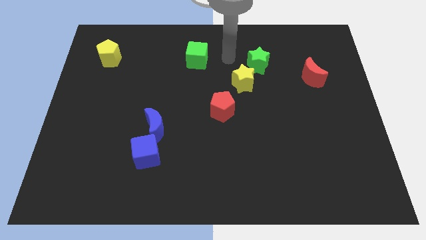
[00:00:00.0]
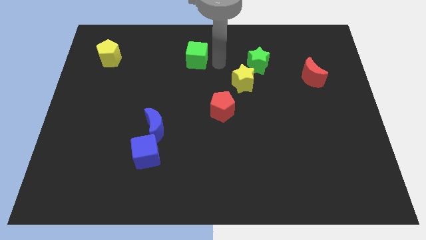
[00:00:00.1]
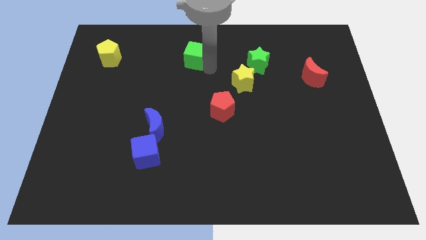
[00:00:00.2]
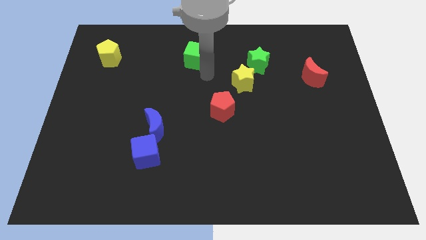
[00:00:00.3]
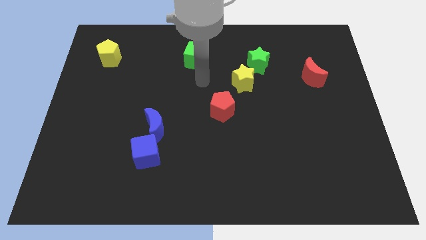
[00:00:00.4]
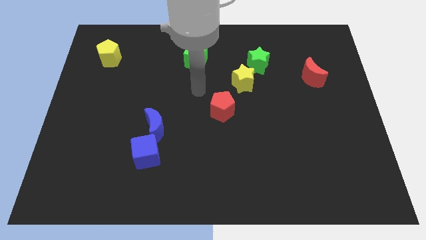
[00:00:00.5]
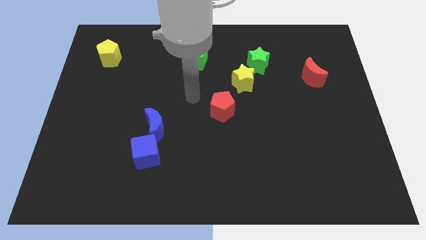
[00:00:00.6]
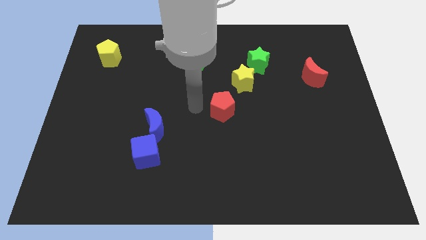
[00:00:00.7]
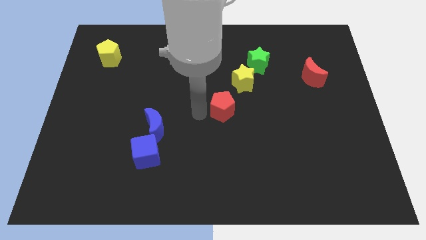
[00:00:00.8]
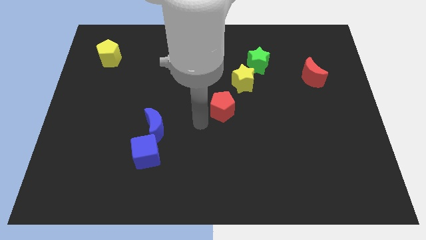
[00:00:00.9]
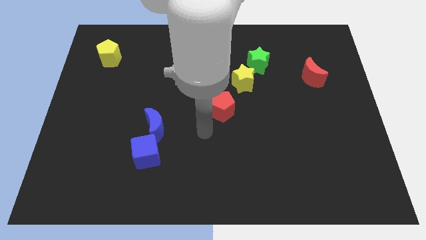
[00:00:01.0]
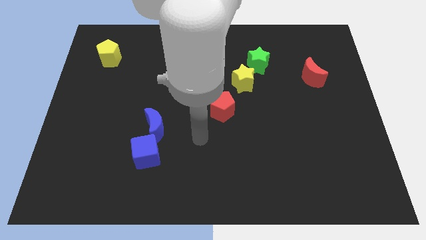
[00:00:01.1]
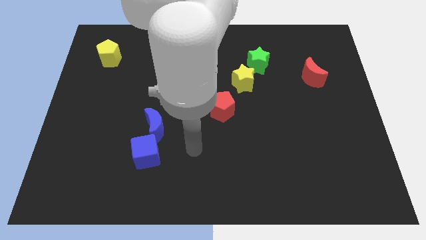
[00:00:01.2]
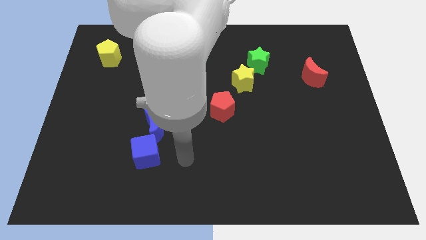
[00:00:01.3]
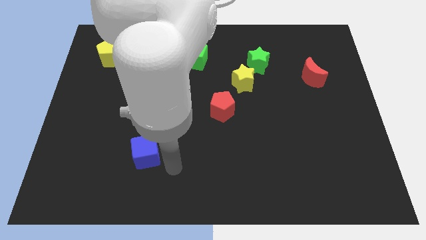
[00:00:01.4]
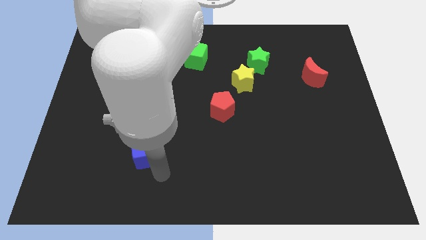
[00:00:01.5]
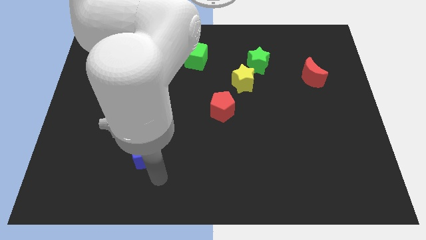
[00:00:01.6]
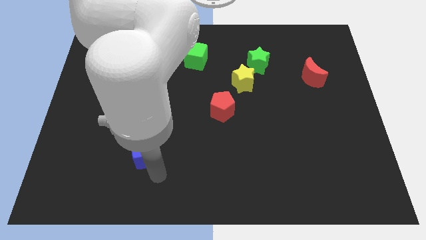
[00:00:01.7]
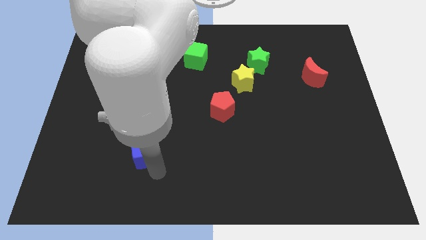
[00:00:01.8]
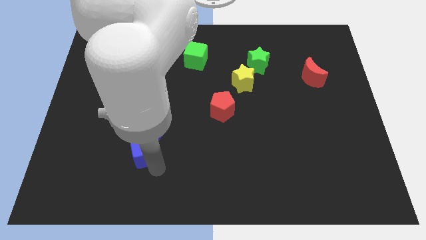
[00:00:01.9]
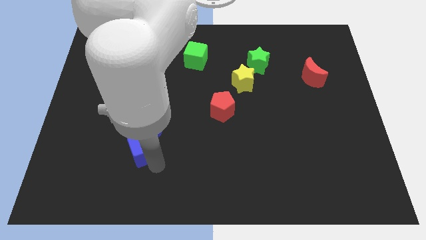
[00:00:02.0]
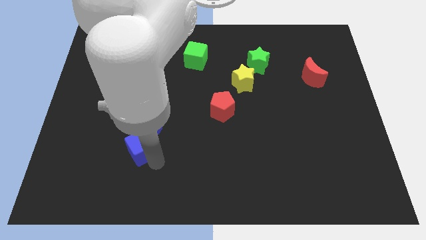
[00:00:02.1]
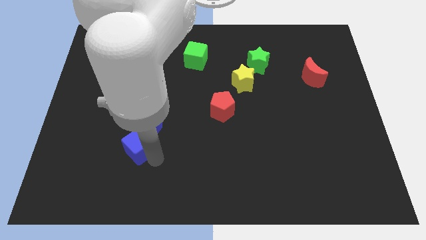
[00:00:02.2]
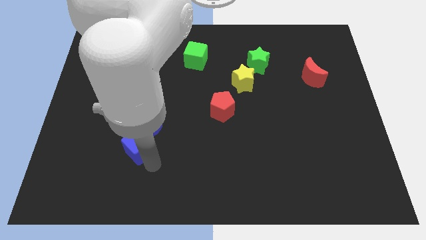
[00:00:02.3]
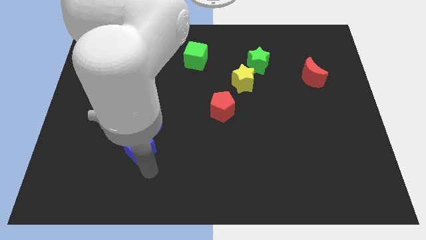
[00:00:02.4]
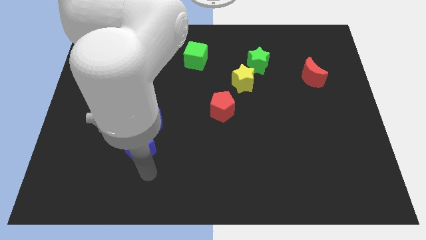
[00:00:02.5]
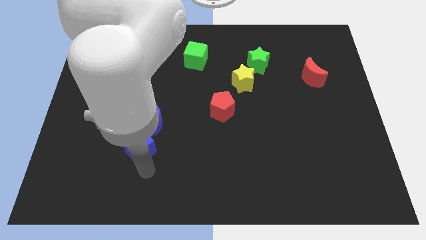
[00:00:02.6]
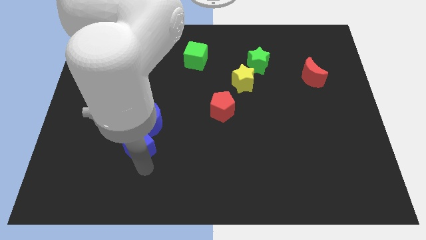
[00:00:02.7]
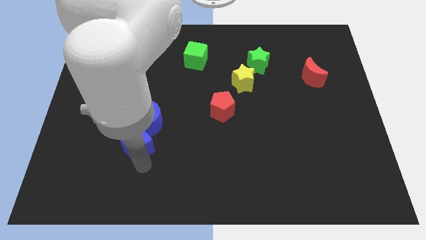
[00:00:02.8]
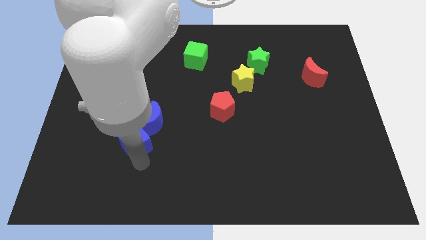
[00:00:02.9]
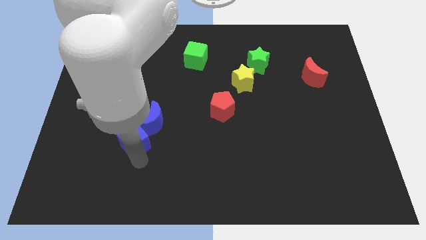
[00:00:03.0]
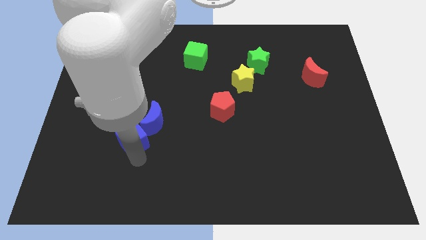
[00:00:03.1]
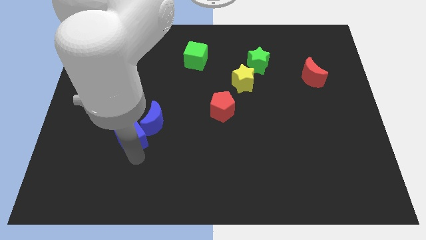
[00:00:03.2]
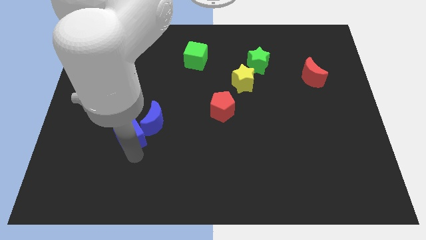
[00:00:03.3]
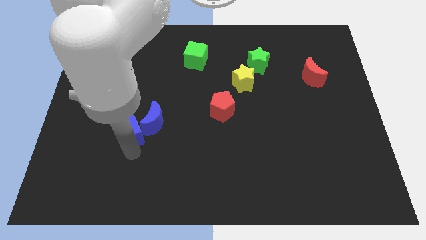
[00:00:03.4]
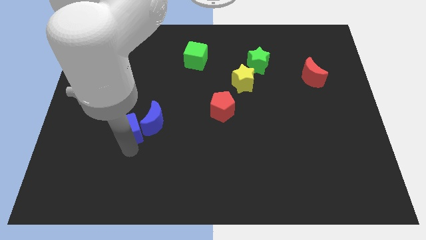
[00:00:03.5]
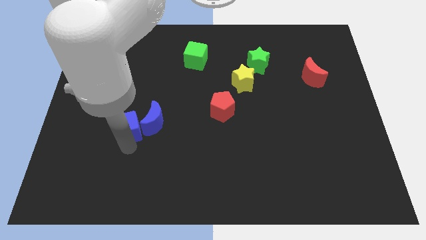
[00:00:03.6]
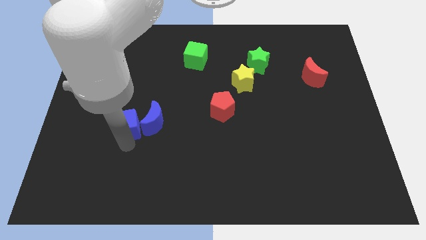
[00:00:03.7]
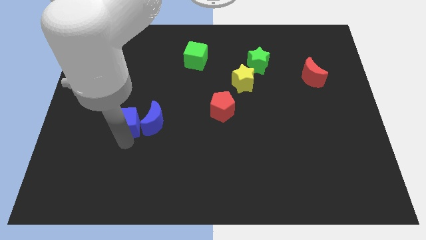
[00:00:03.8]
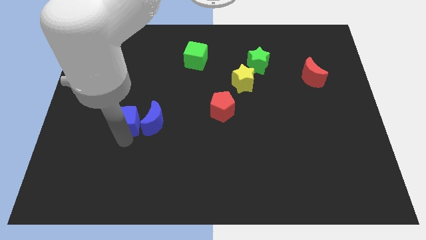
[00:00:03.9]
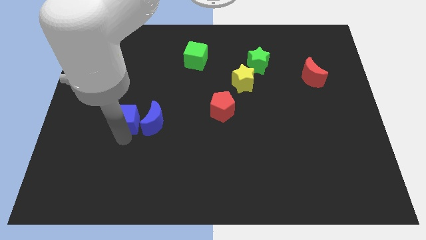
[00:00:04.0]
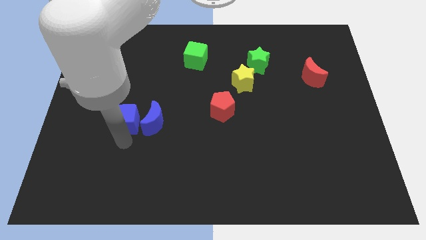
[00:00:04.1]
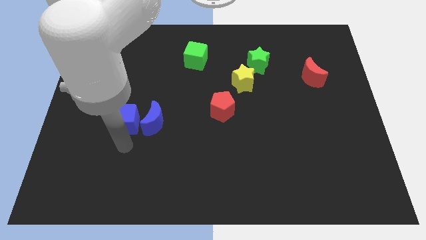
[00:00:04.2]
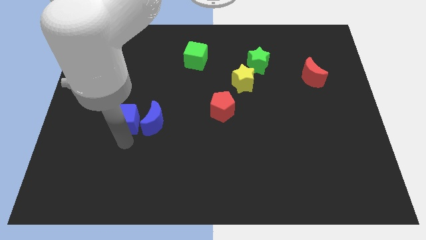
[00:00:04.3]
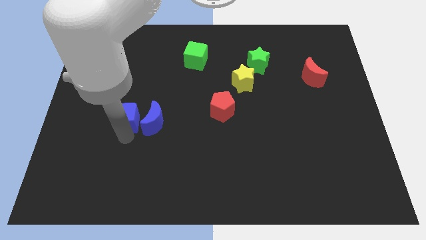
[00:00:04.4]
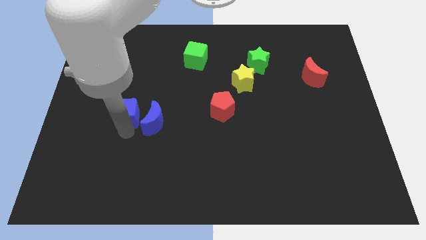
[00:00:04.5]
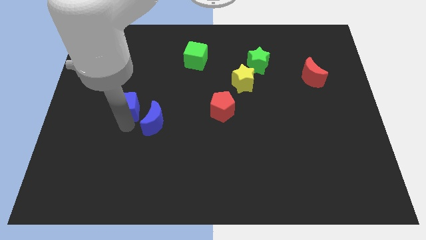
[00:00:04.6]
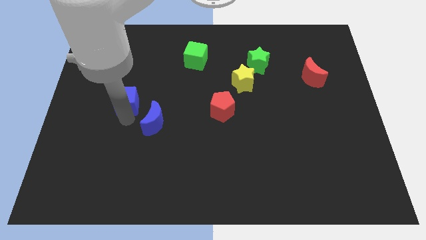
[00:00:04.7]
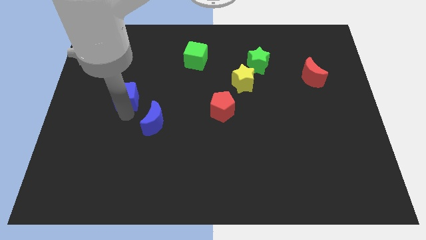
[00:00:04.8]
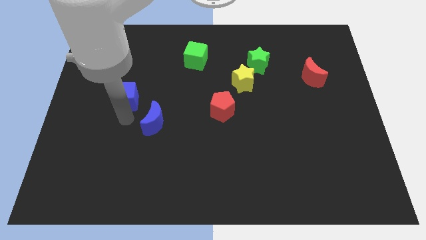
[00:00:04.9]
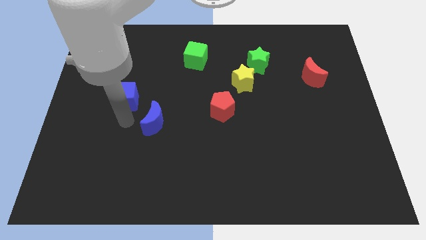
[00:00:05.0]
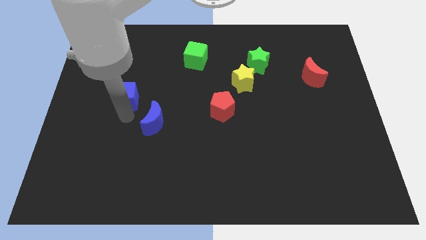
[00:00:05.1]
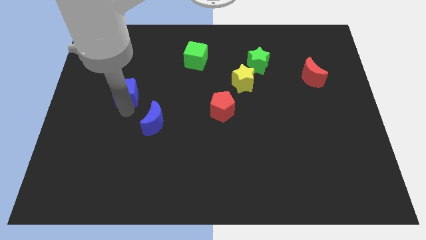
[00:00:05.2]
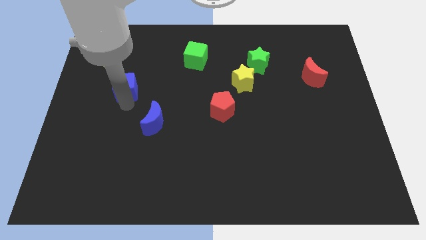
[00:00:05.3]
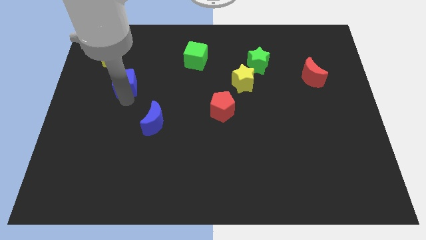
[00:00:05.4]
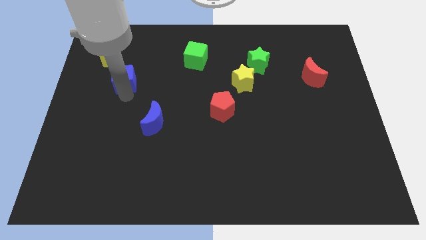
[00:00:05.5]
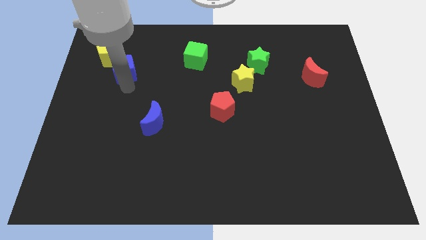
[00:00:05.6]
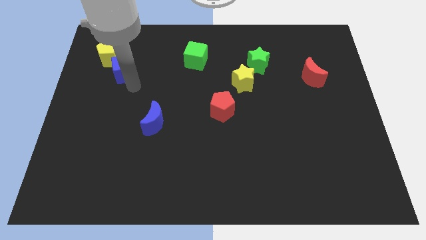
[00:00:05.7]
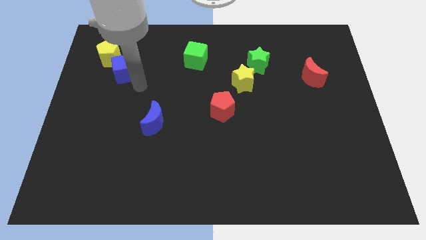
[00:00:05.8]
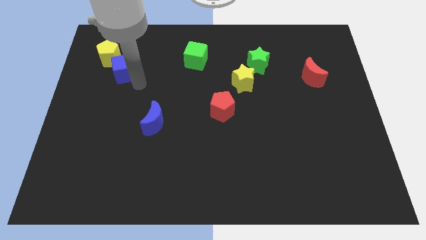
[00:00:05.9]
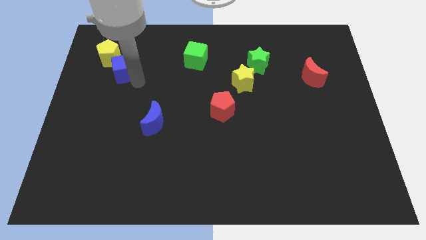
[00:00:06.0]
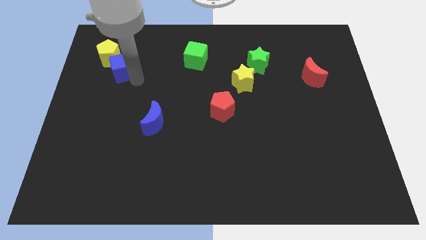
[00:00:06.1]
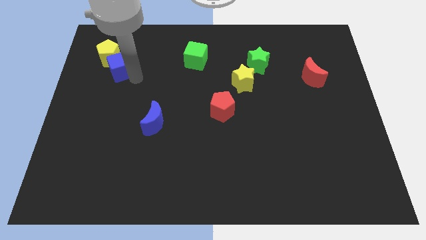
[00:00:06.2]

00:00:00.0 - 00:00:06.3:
slide the blue cube close to the yellow pentagon
